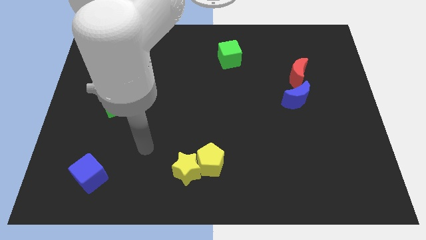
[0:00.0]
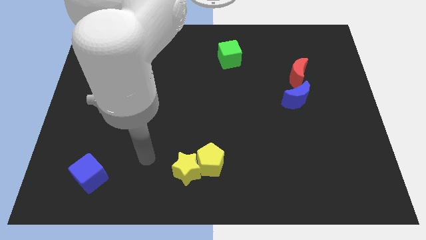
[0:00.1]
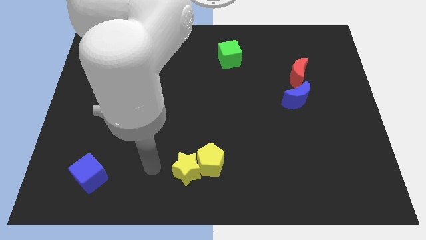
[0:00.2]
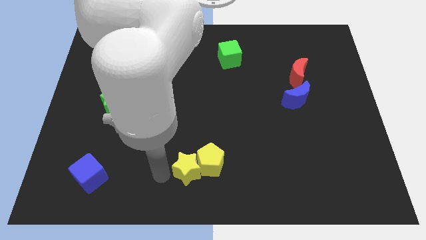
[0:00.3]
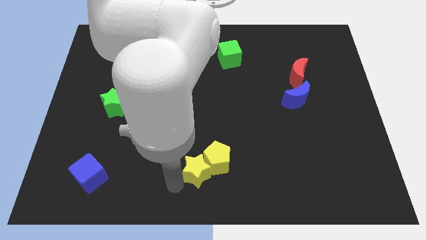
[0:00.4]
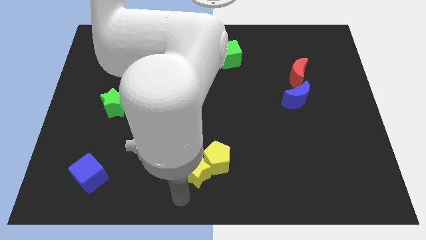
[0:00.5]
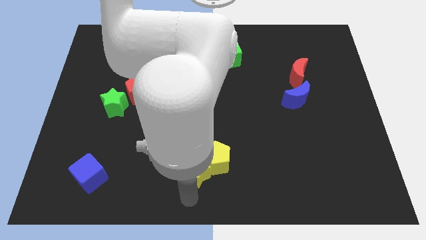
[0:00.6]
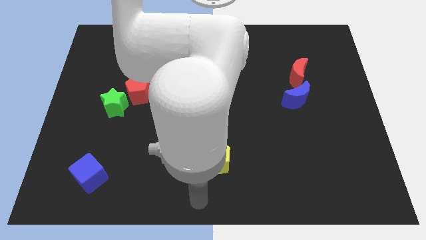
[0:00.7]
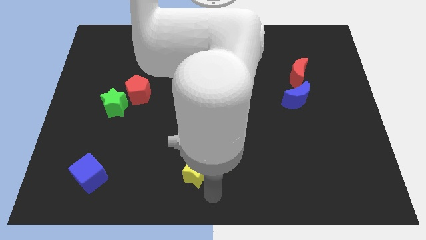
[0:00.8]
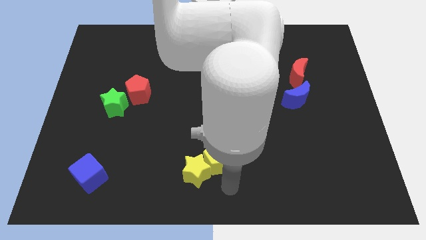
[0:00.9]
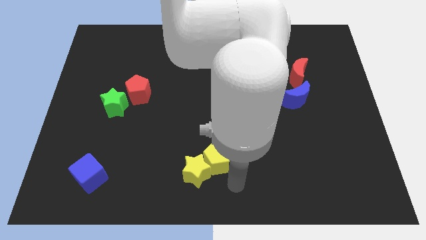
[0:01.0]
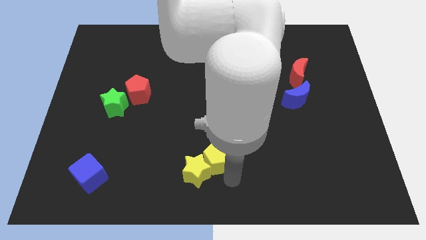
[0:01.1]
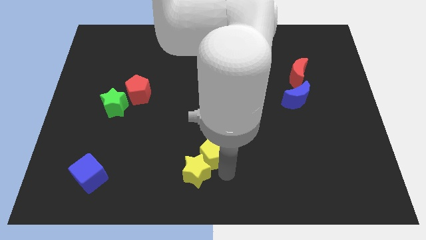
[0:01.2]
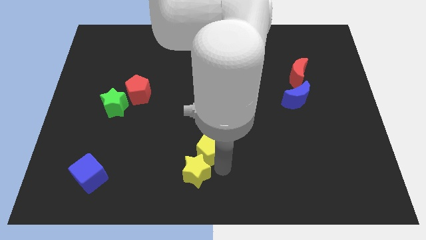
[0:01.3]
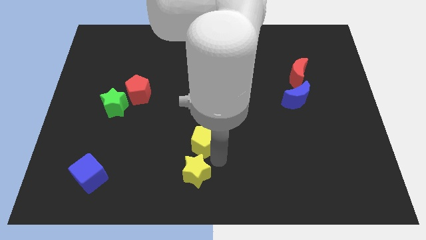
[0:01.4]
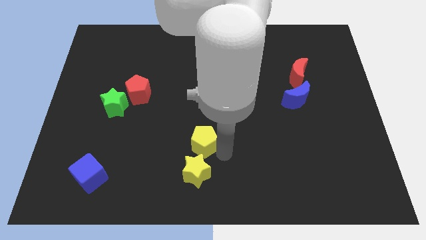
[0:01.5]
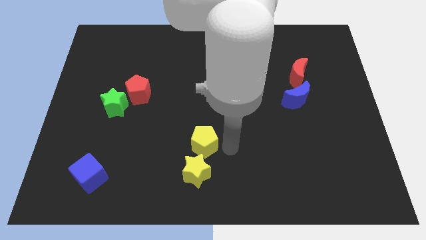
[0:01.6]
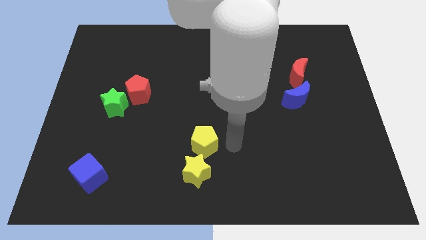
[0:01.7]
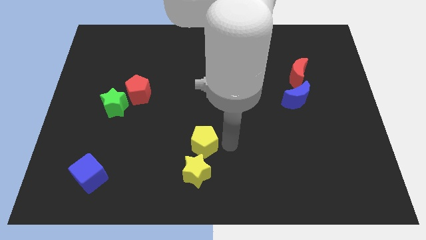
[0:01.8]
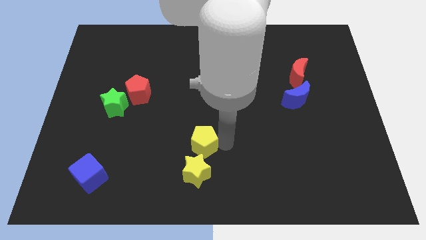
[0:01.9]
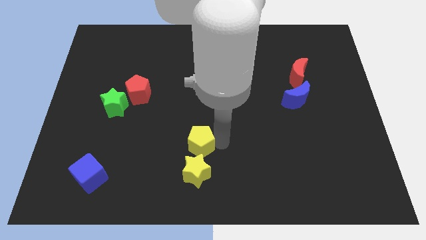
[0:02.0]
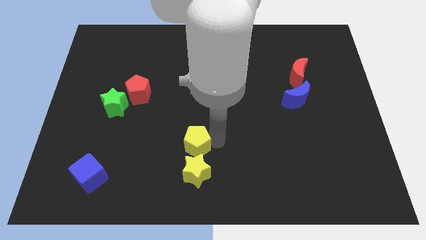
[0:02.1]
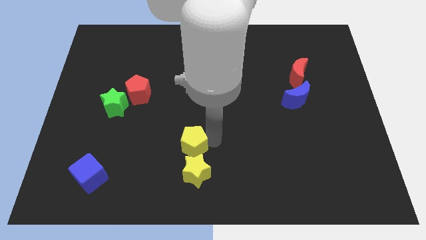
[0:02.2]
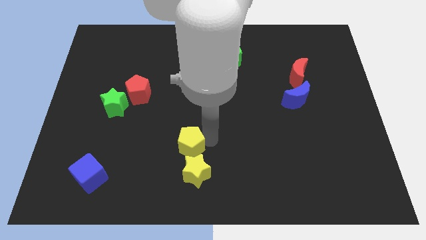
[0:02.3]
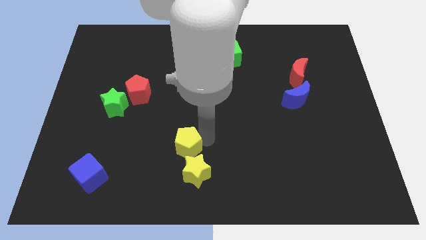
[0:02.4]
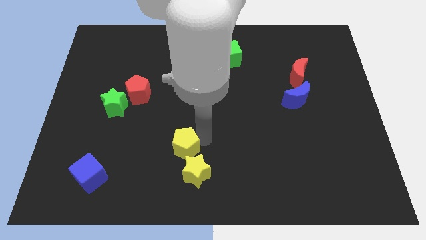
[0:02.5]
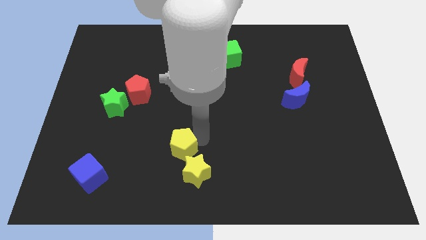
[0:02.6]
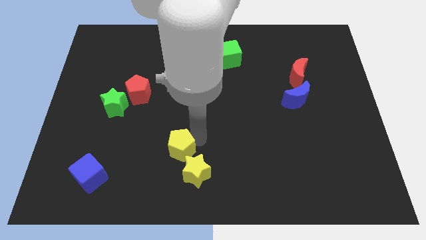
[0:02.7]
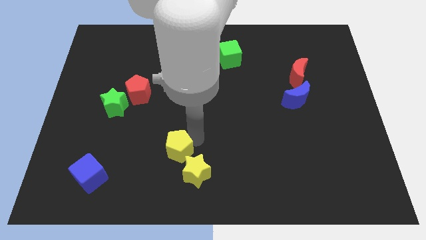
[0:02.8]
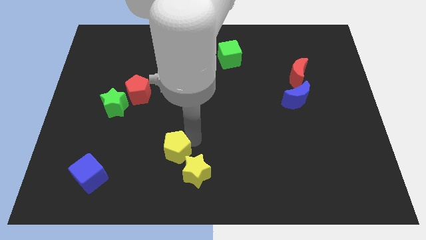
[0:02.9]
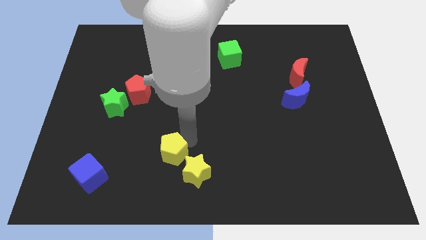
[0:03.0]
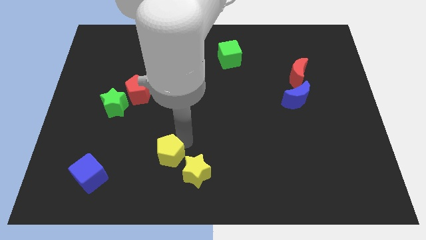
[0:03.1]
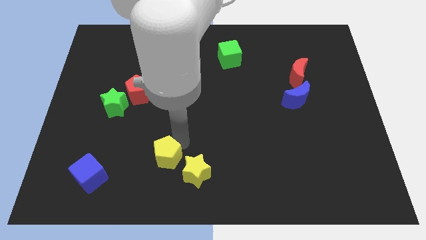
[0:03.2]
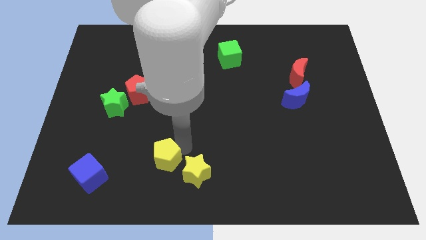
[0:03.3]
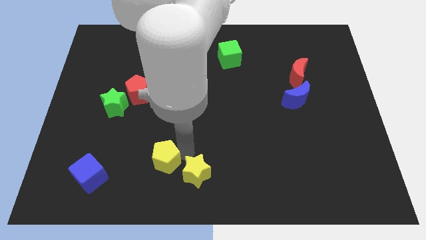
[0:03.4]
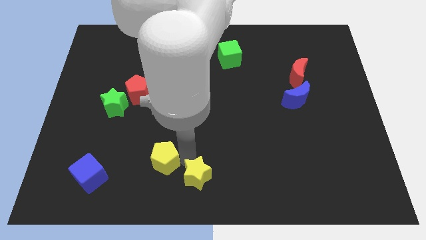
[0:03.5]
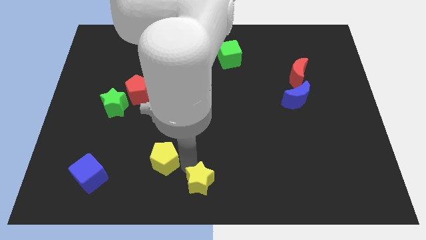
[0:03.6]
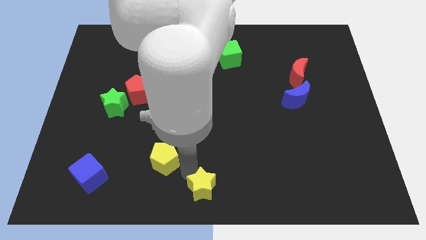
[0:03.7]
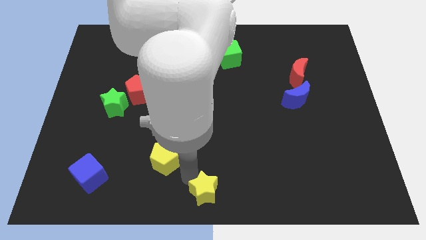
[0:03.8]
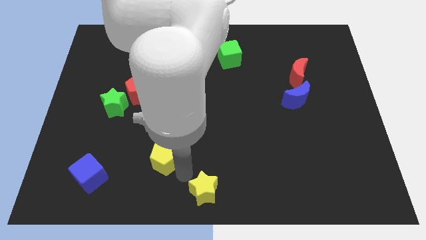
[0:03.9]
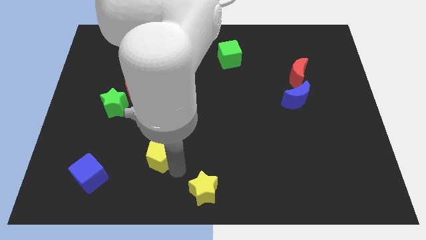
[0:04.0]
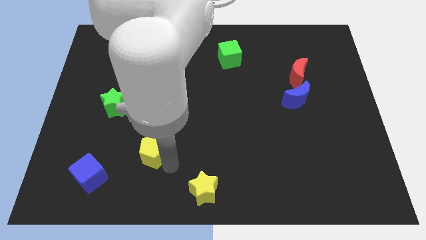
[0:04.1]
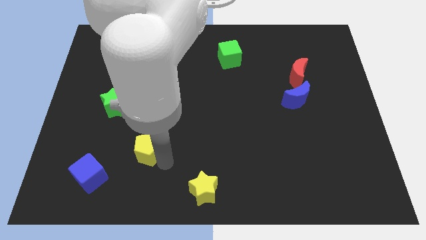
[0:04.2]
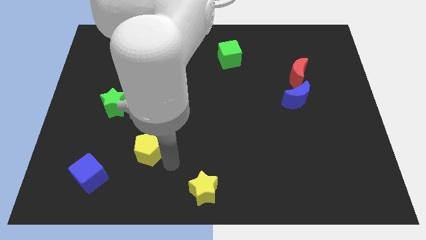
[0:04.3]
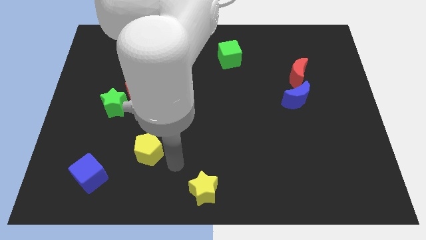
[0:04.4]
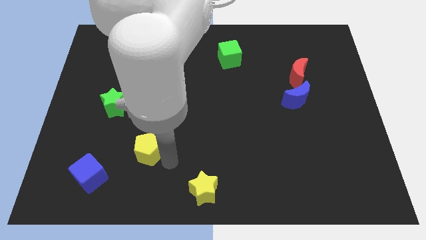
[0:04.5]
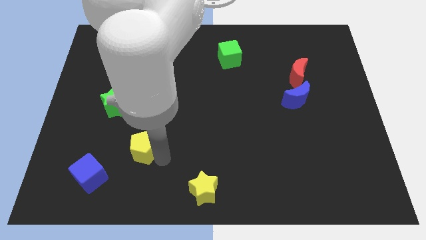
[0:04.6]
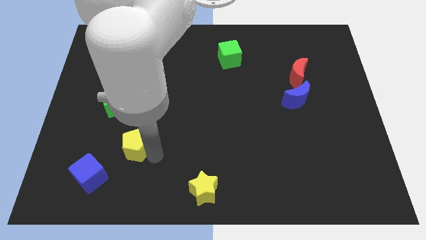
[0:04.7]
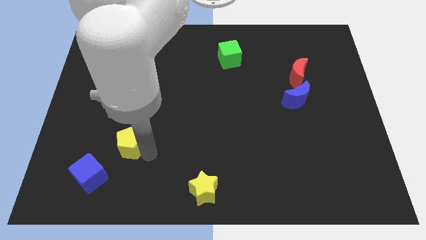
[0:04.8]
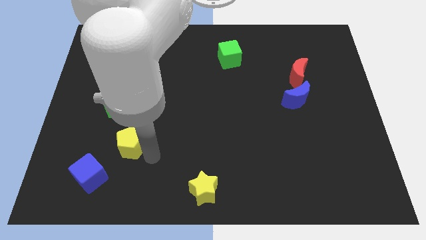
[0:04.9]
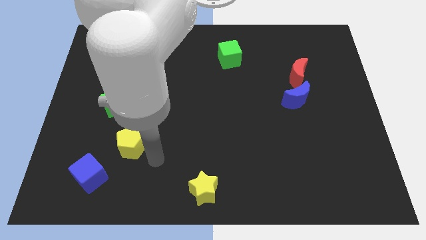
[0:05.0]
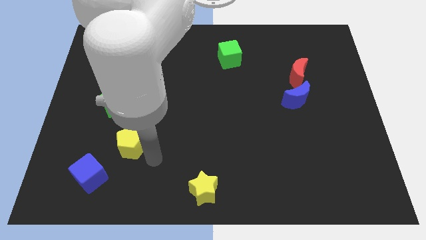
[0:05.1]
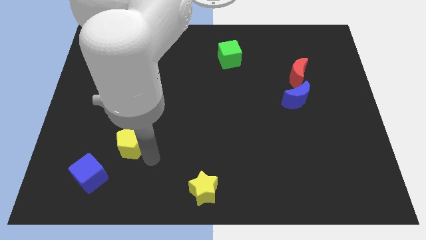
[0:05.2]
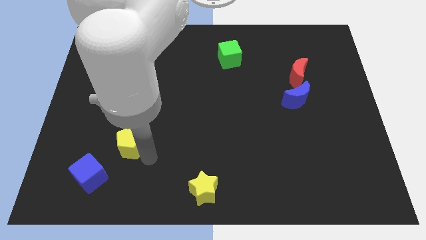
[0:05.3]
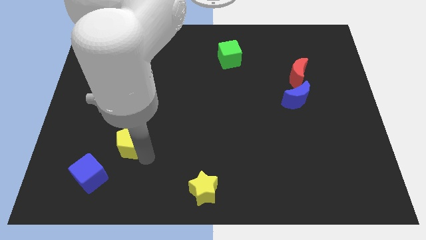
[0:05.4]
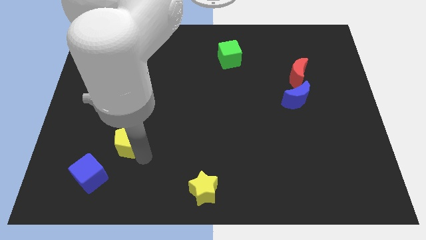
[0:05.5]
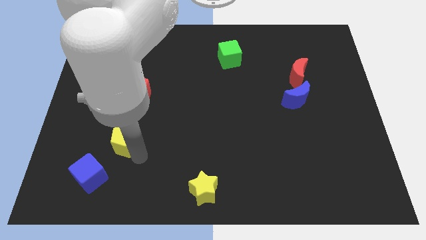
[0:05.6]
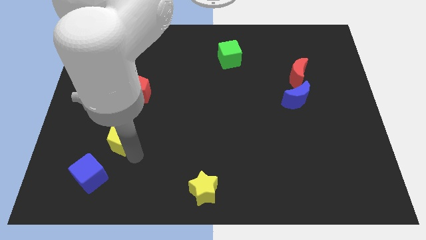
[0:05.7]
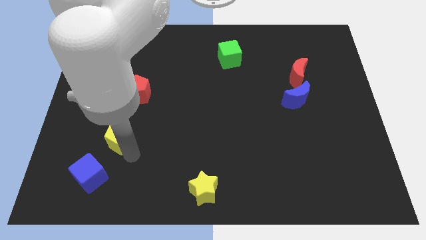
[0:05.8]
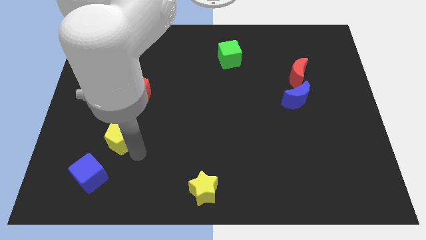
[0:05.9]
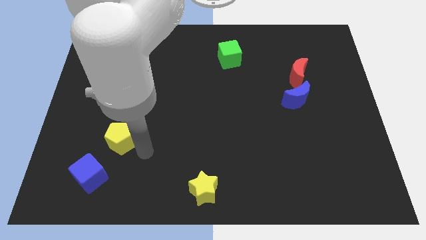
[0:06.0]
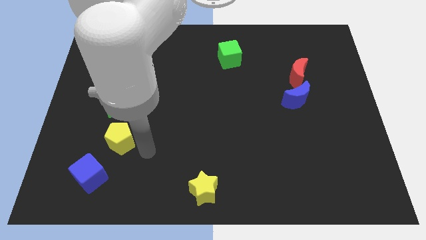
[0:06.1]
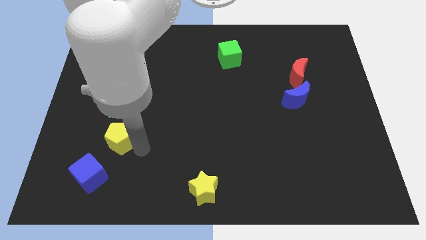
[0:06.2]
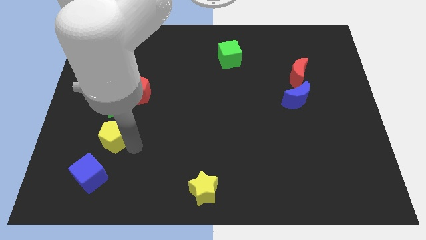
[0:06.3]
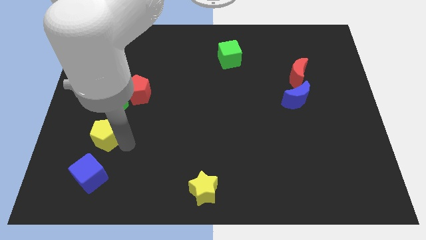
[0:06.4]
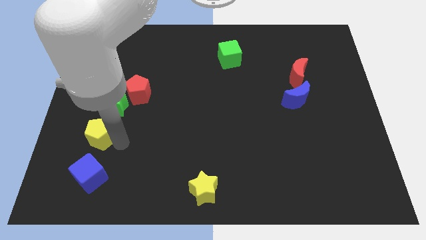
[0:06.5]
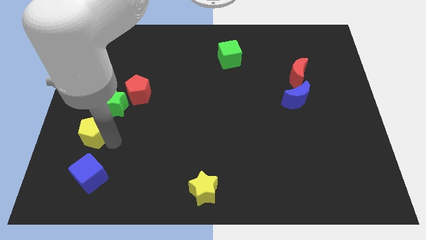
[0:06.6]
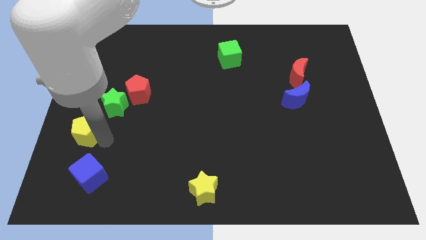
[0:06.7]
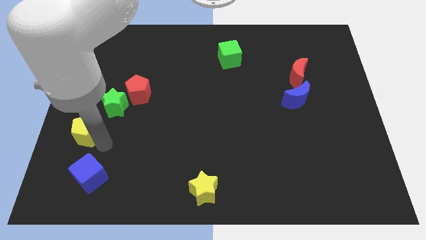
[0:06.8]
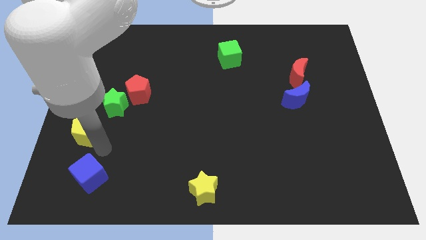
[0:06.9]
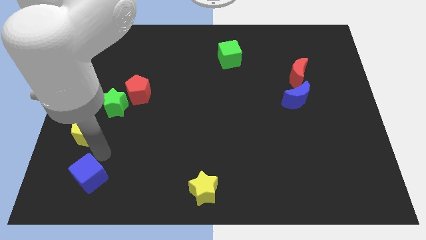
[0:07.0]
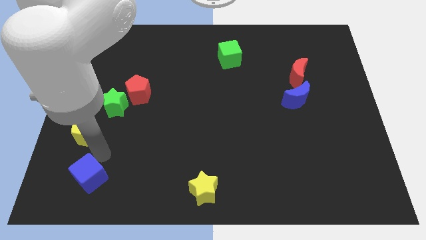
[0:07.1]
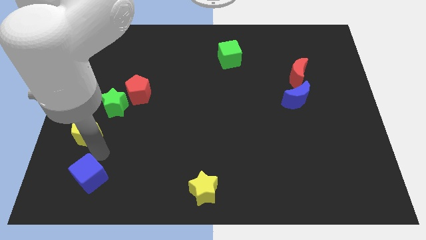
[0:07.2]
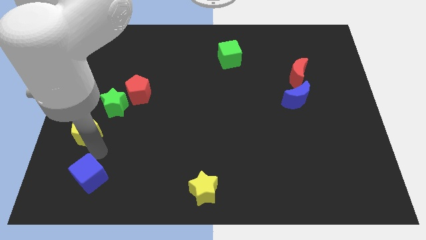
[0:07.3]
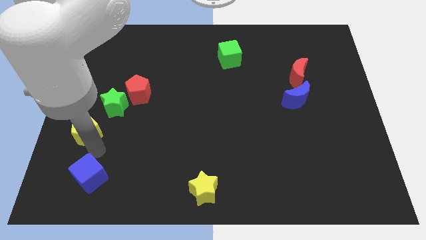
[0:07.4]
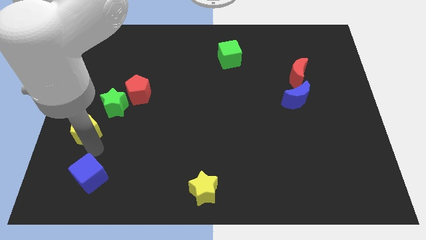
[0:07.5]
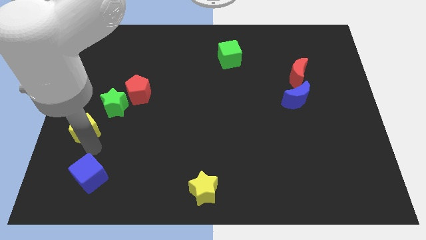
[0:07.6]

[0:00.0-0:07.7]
put the yellow pentagon to the center left

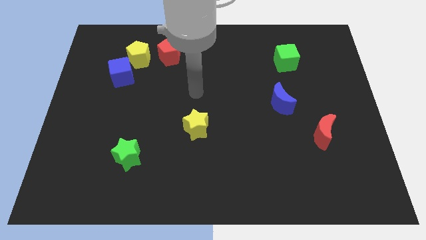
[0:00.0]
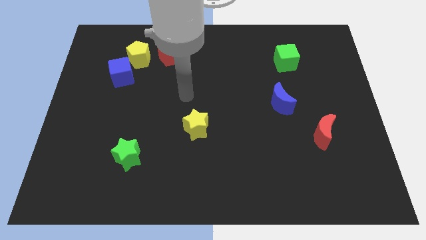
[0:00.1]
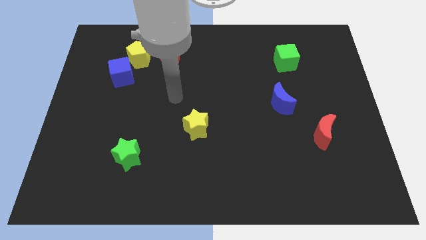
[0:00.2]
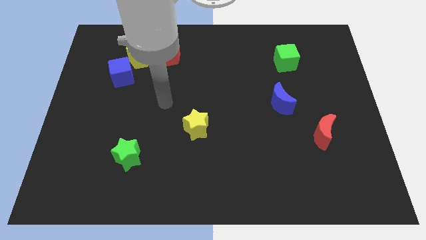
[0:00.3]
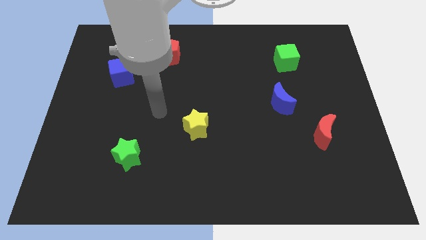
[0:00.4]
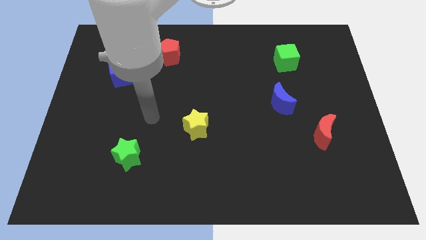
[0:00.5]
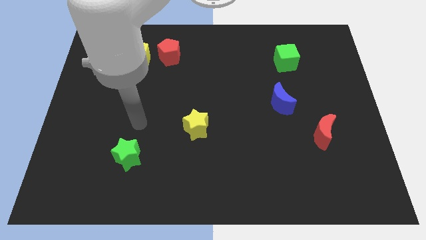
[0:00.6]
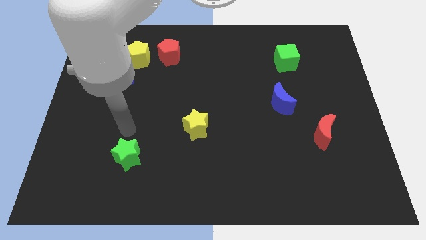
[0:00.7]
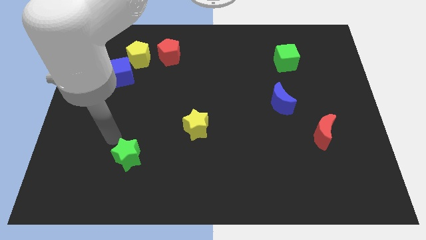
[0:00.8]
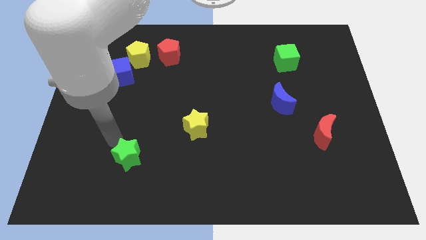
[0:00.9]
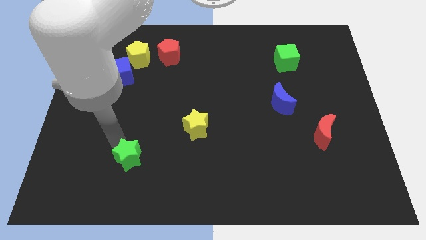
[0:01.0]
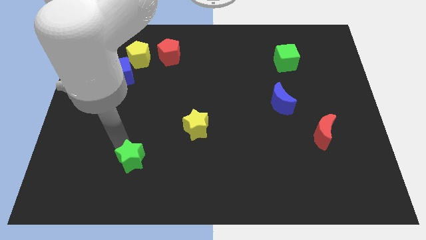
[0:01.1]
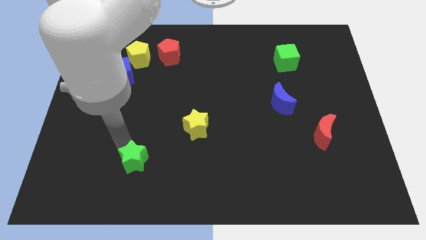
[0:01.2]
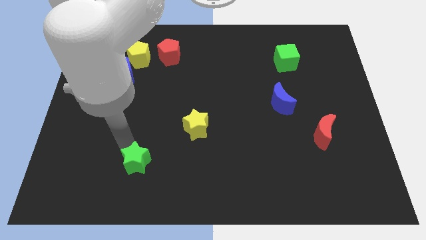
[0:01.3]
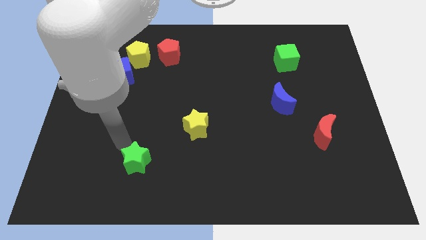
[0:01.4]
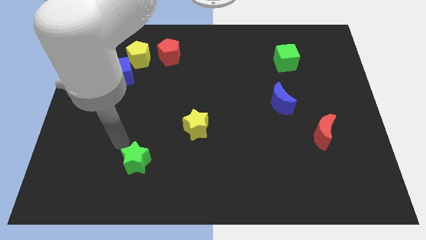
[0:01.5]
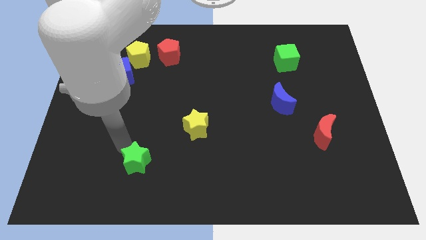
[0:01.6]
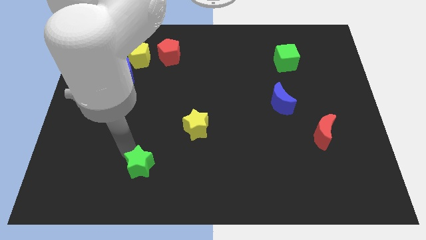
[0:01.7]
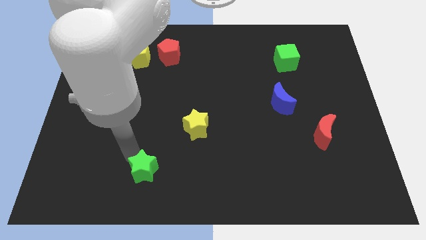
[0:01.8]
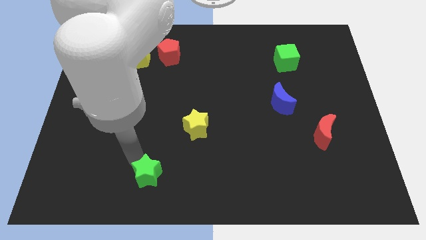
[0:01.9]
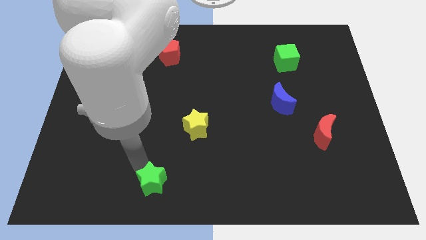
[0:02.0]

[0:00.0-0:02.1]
put the green star to the bottom
